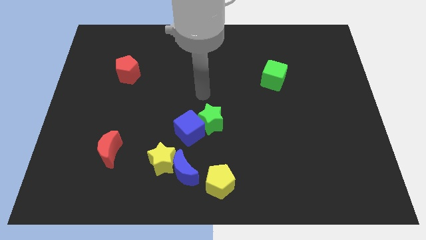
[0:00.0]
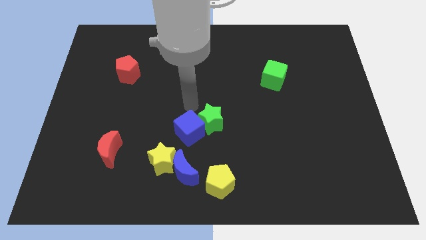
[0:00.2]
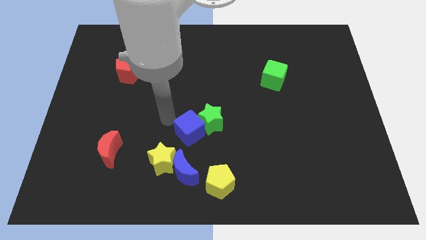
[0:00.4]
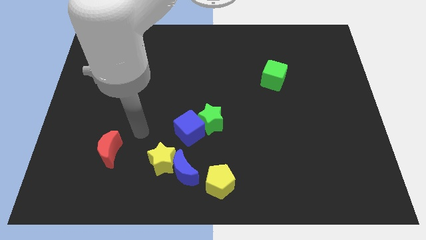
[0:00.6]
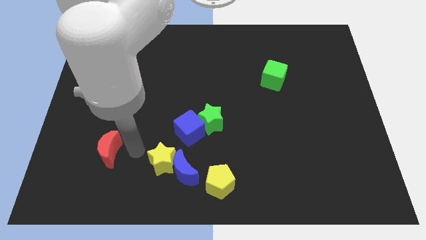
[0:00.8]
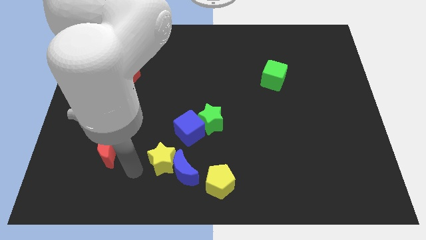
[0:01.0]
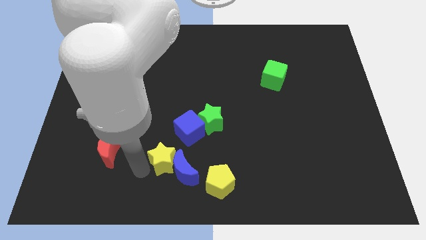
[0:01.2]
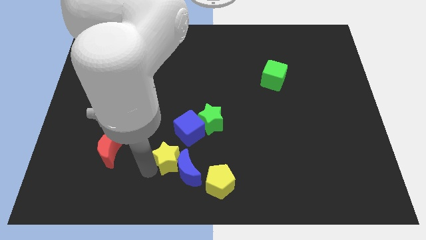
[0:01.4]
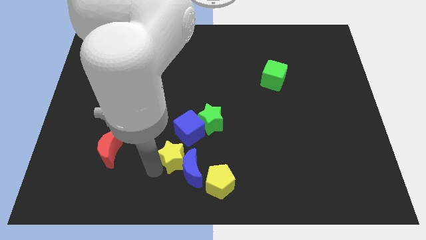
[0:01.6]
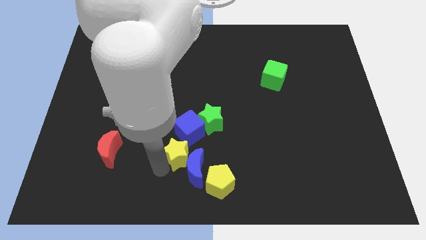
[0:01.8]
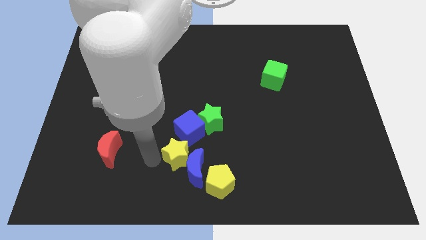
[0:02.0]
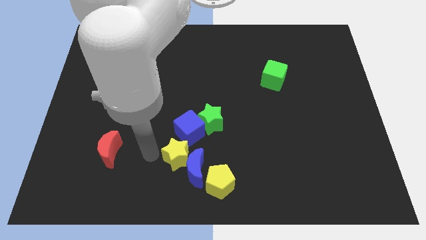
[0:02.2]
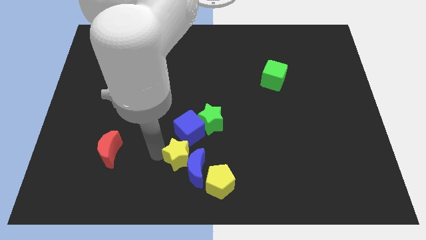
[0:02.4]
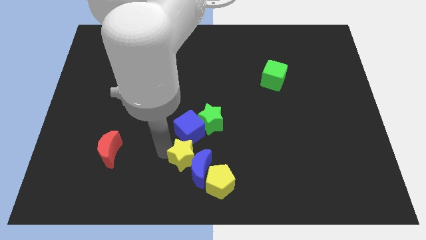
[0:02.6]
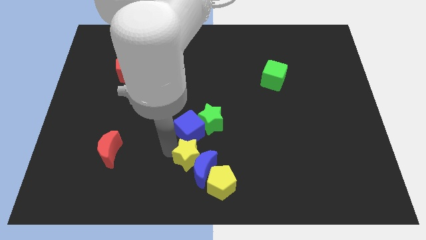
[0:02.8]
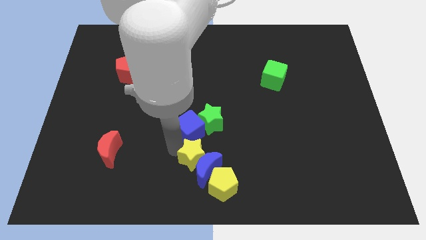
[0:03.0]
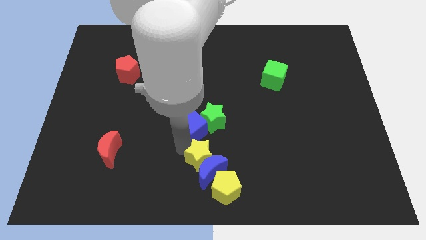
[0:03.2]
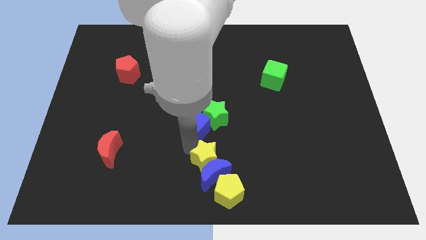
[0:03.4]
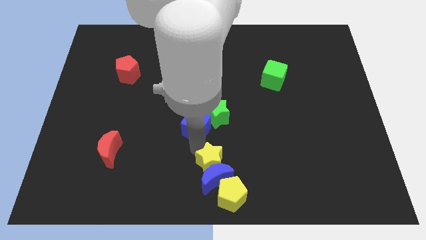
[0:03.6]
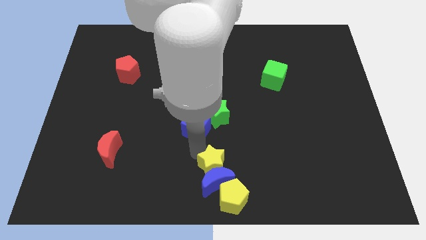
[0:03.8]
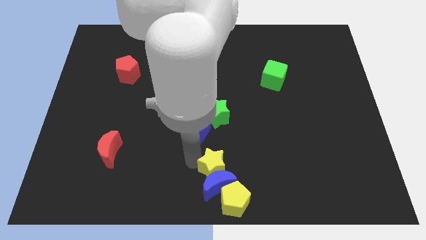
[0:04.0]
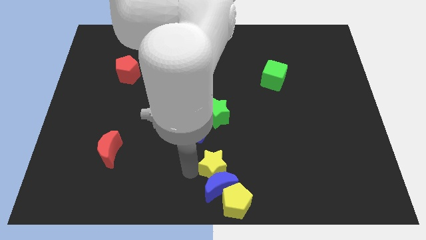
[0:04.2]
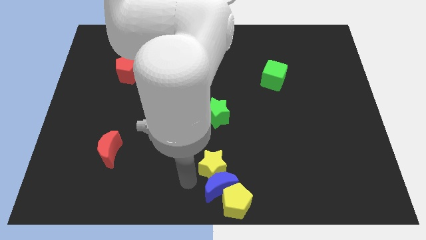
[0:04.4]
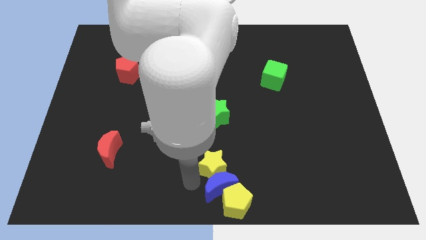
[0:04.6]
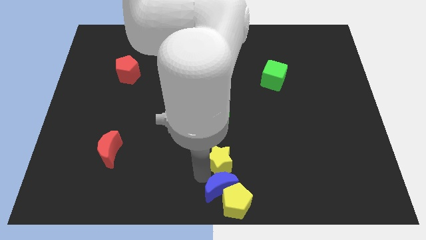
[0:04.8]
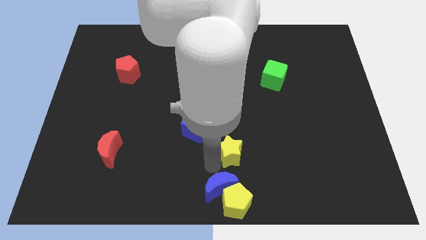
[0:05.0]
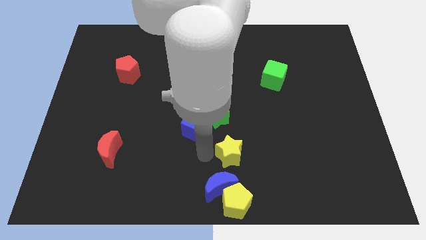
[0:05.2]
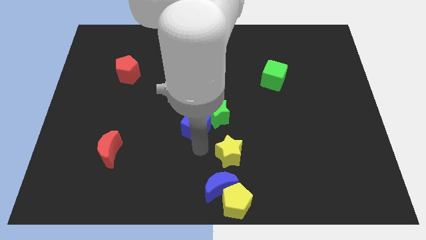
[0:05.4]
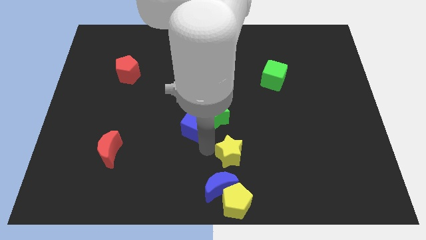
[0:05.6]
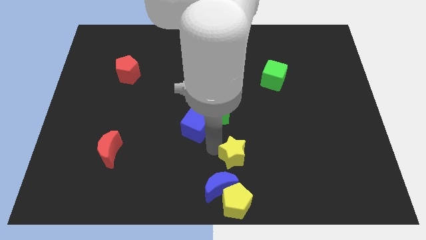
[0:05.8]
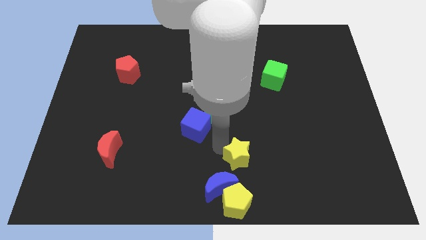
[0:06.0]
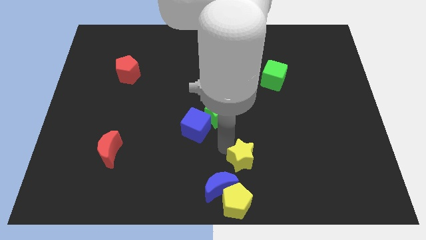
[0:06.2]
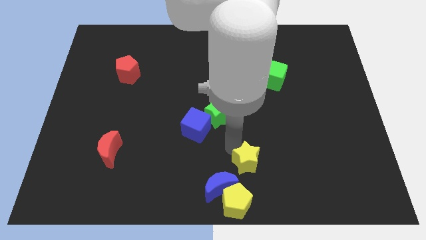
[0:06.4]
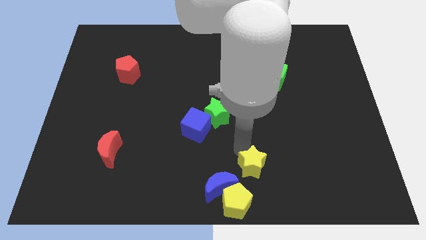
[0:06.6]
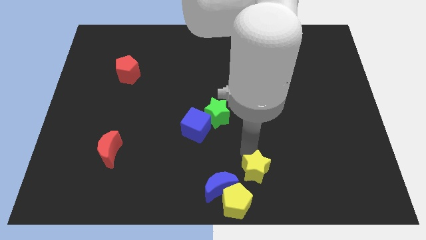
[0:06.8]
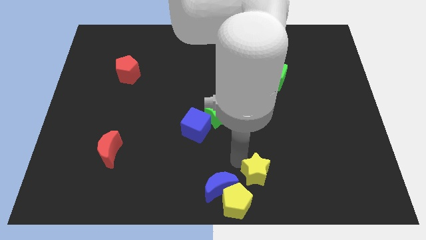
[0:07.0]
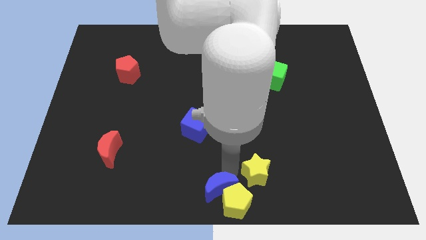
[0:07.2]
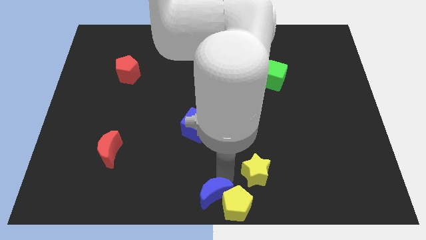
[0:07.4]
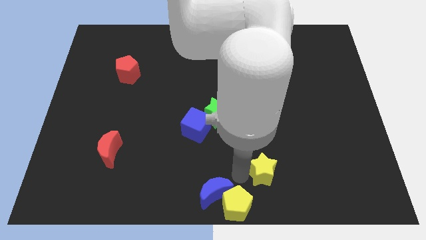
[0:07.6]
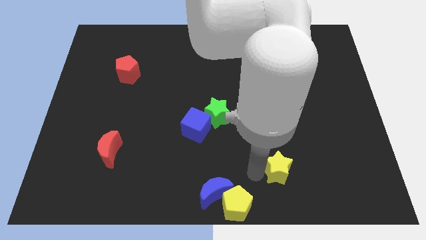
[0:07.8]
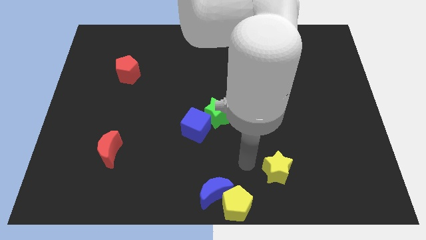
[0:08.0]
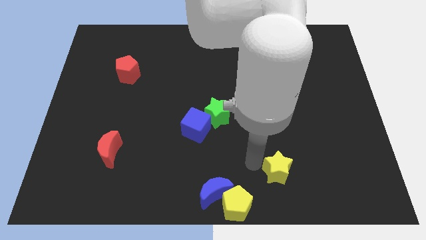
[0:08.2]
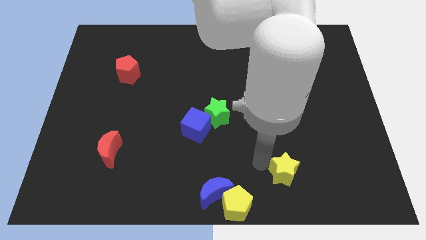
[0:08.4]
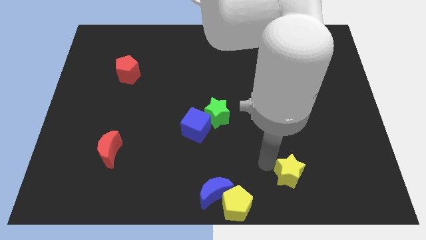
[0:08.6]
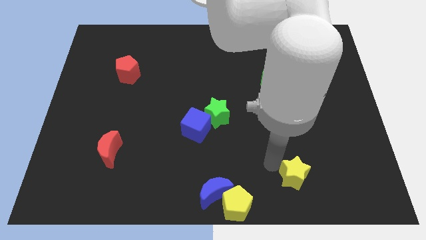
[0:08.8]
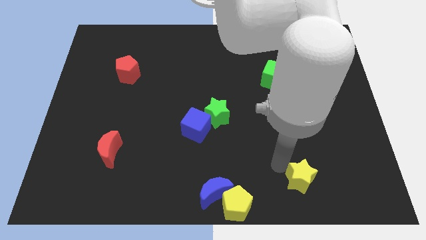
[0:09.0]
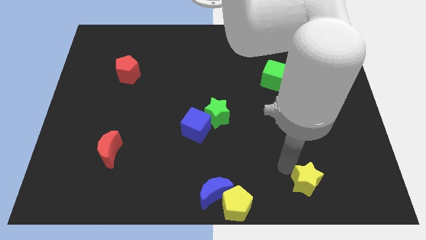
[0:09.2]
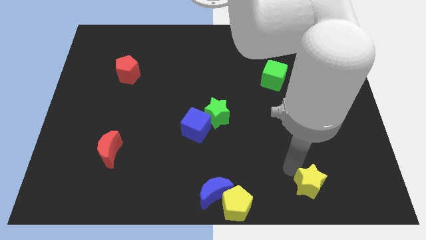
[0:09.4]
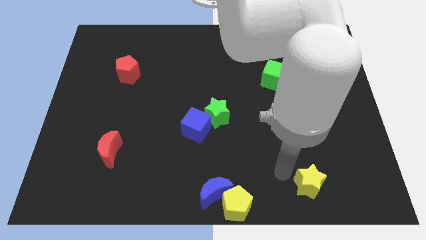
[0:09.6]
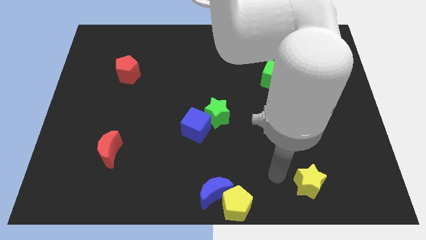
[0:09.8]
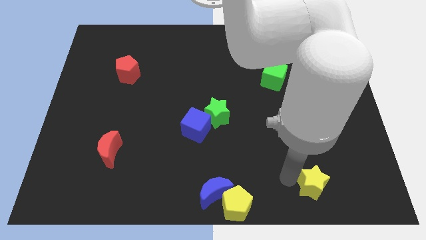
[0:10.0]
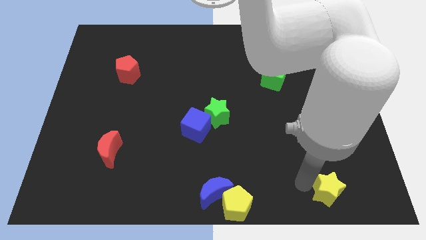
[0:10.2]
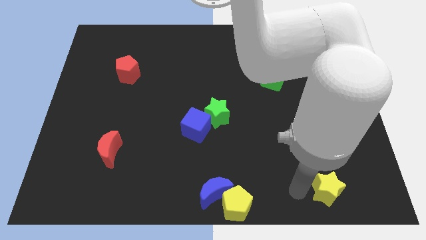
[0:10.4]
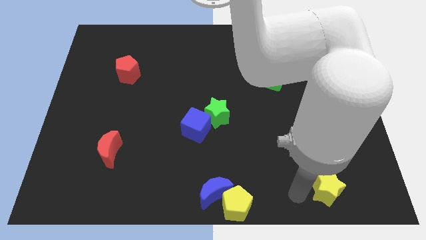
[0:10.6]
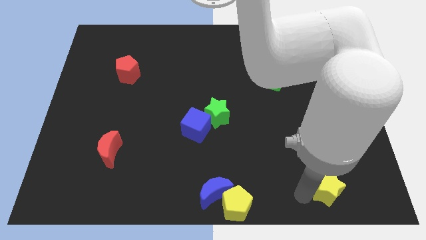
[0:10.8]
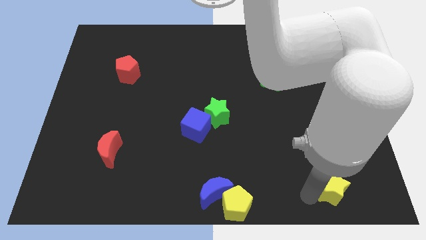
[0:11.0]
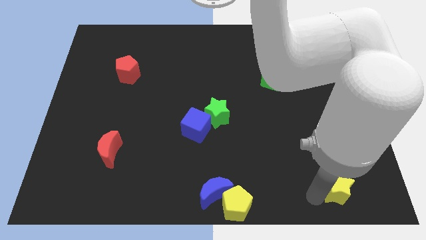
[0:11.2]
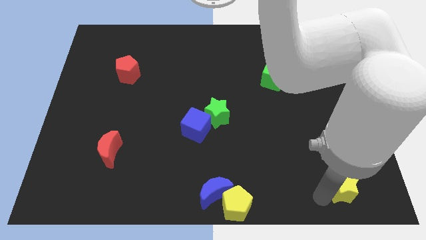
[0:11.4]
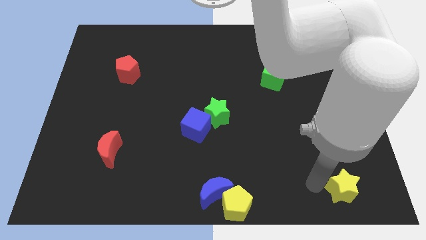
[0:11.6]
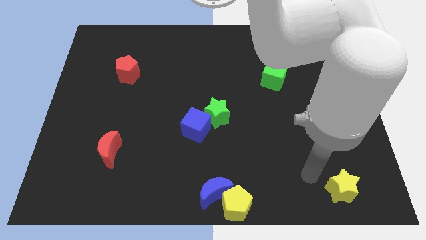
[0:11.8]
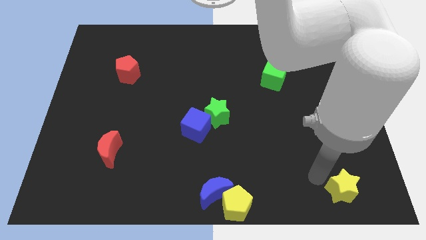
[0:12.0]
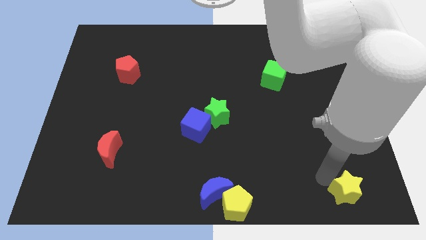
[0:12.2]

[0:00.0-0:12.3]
push the yellow star to the bottom right of the board
